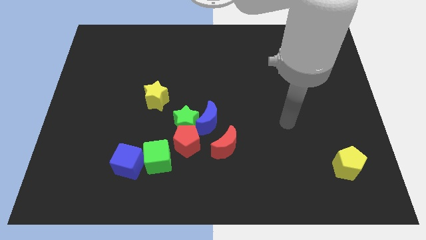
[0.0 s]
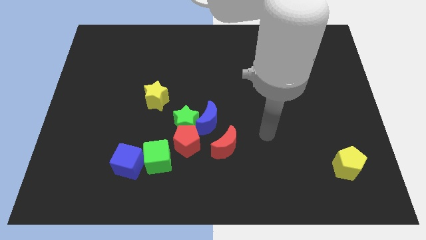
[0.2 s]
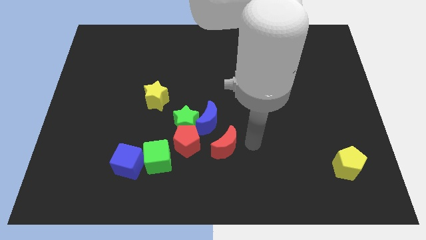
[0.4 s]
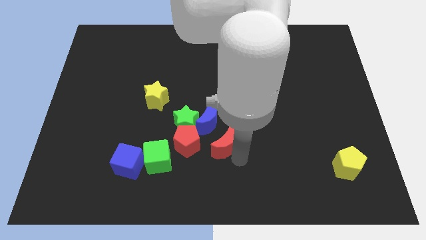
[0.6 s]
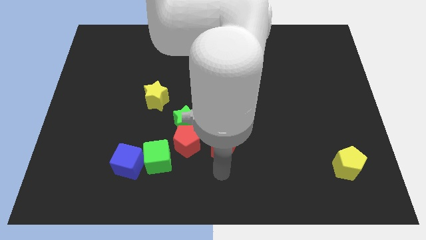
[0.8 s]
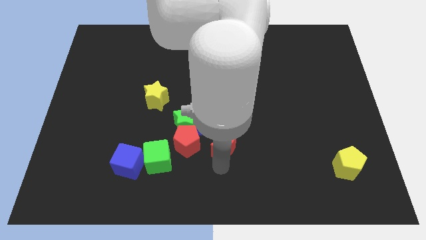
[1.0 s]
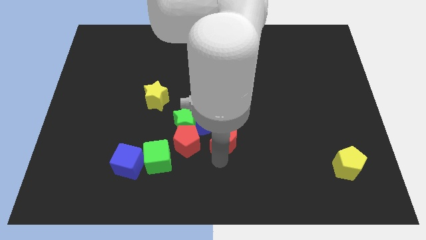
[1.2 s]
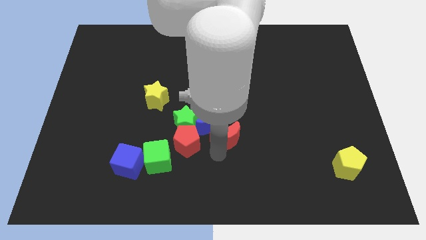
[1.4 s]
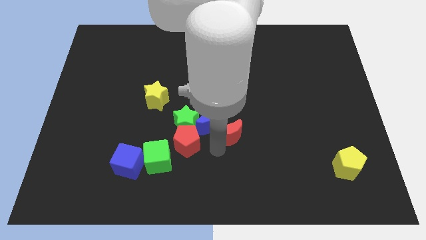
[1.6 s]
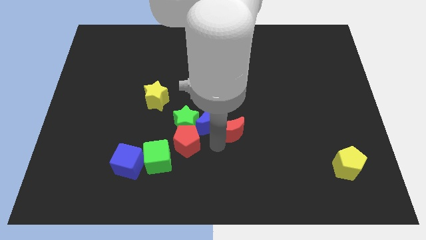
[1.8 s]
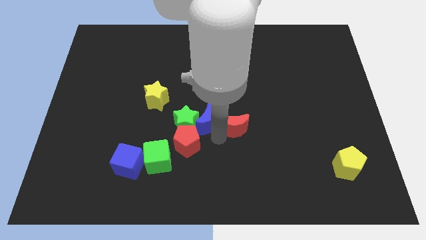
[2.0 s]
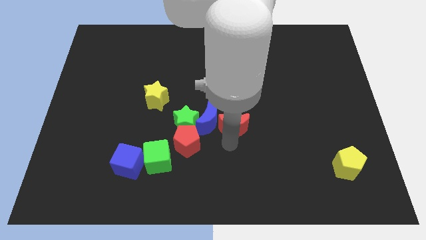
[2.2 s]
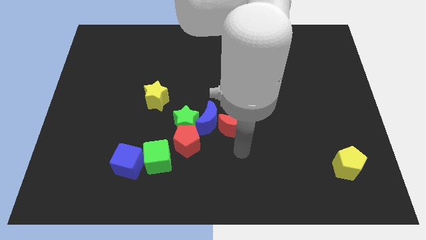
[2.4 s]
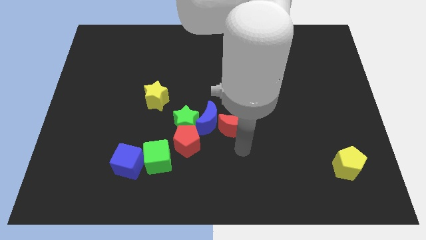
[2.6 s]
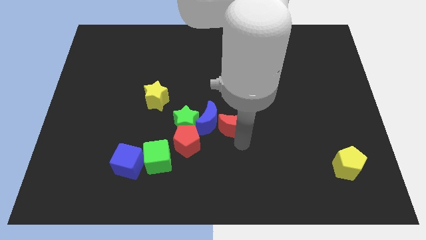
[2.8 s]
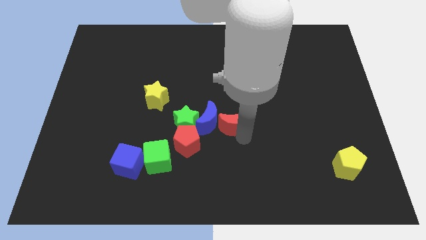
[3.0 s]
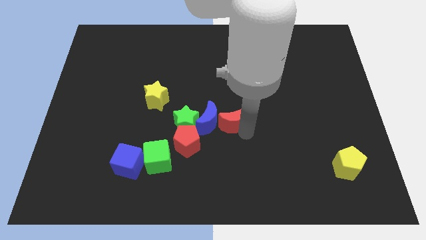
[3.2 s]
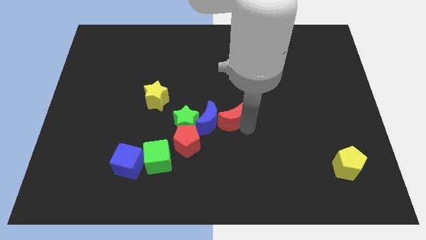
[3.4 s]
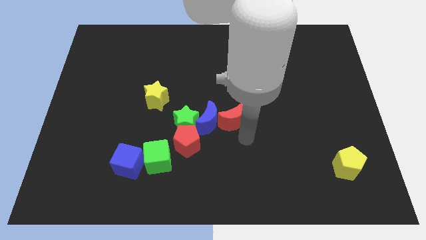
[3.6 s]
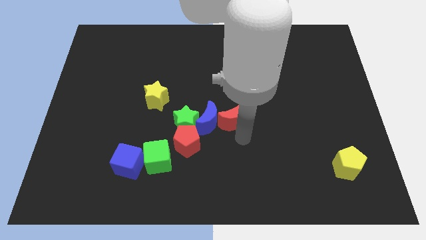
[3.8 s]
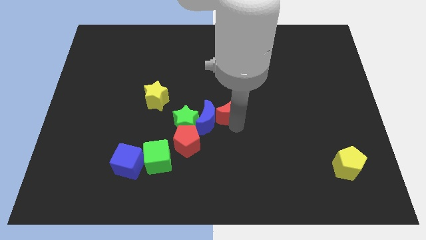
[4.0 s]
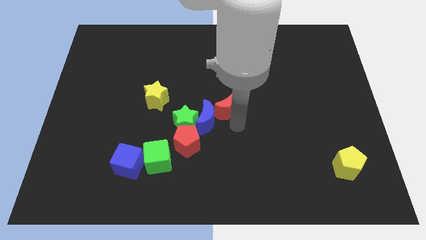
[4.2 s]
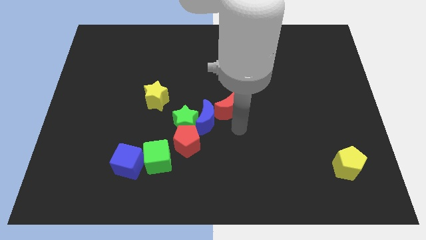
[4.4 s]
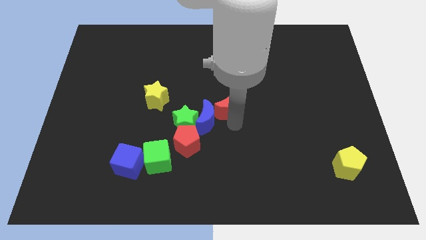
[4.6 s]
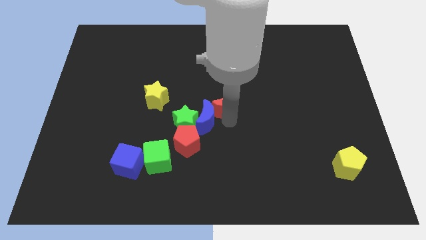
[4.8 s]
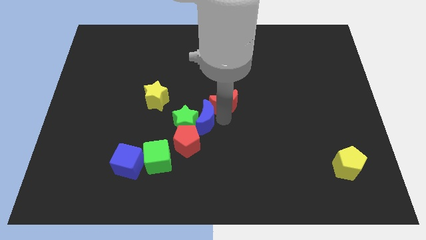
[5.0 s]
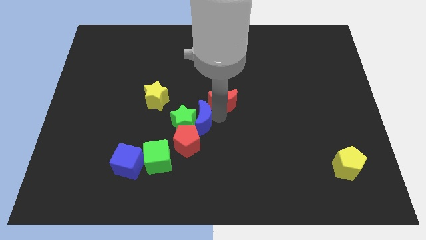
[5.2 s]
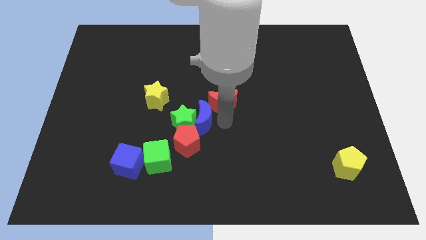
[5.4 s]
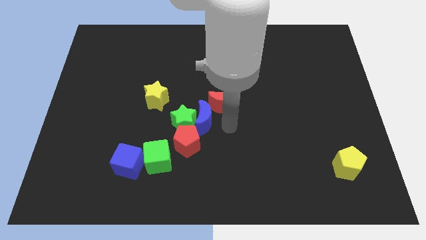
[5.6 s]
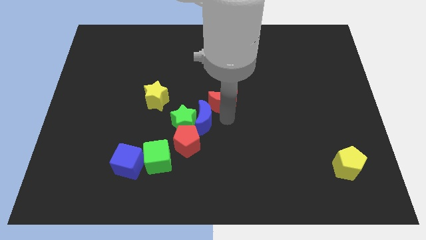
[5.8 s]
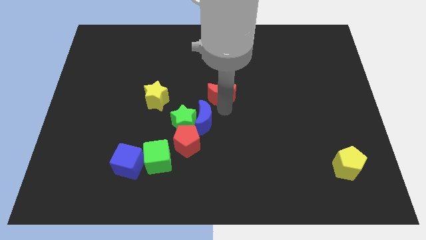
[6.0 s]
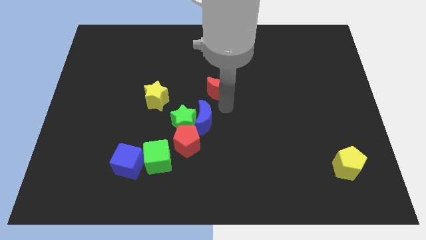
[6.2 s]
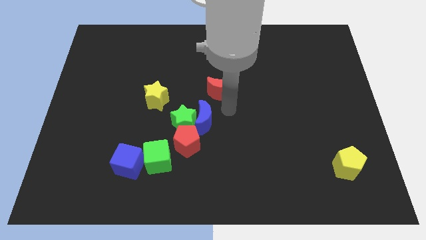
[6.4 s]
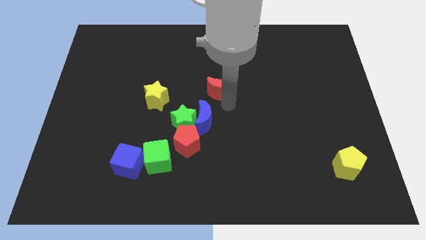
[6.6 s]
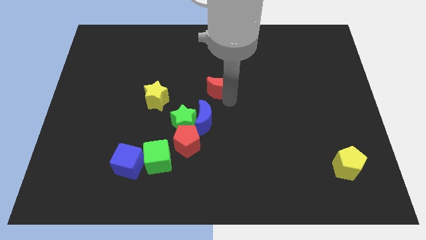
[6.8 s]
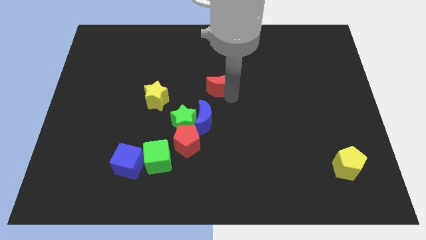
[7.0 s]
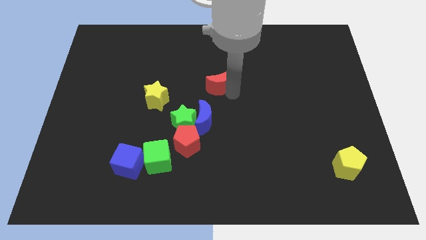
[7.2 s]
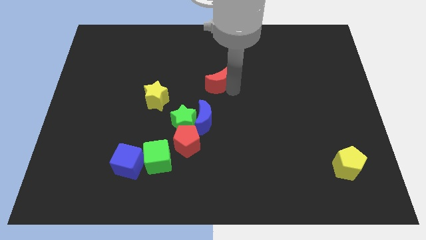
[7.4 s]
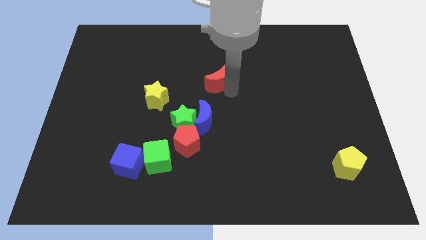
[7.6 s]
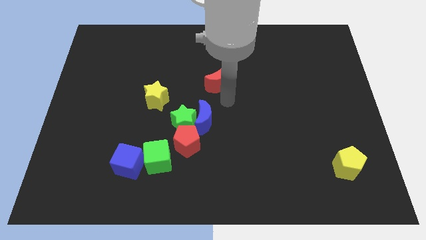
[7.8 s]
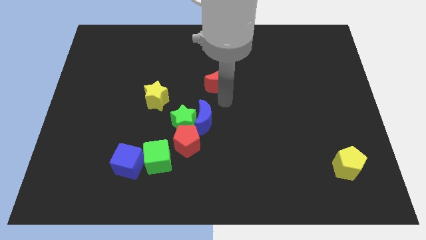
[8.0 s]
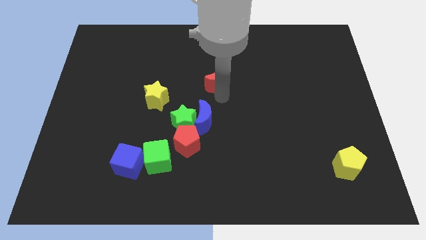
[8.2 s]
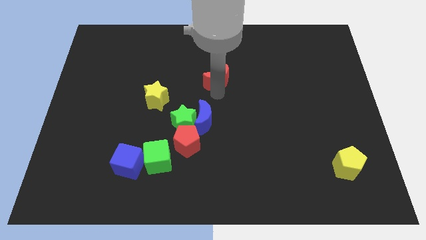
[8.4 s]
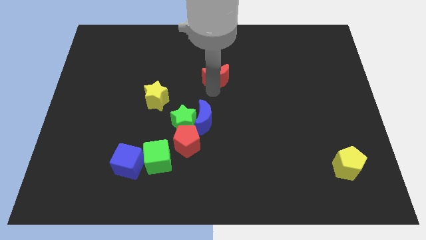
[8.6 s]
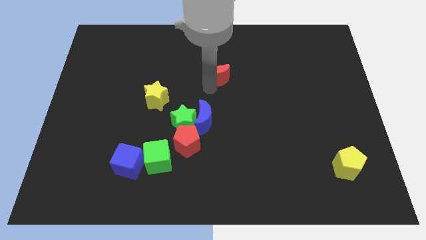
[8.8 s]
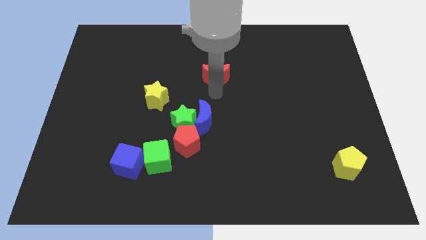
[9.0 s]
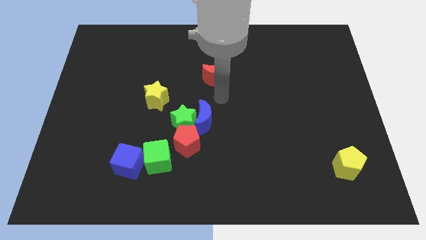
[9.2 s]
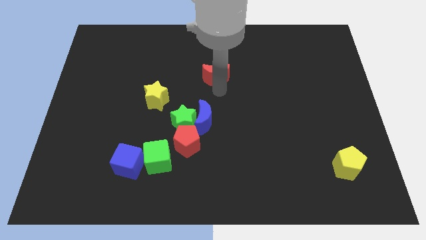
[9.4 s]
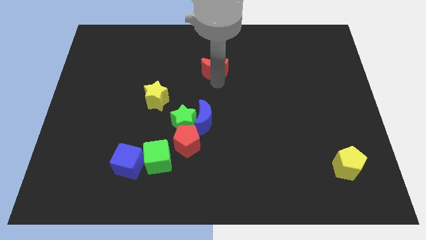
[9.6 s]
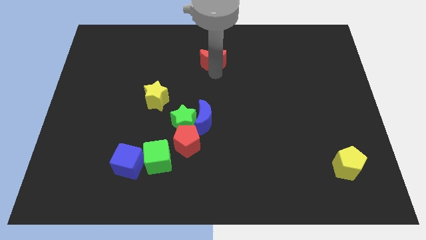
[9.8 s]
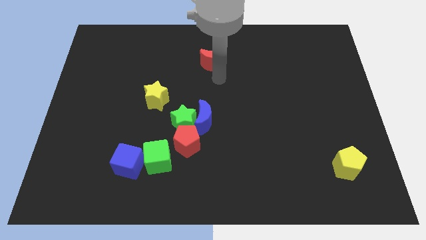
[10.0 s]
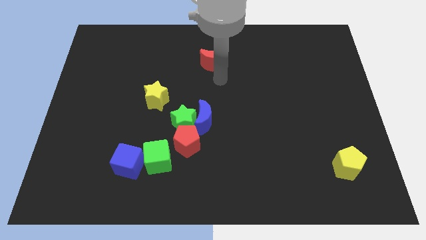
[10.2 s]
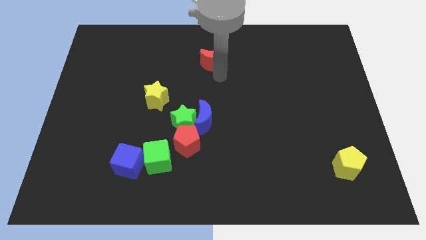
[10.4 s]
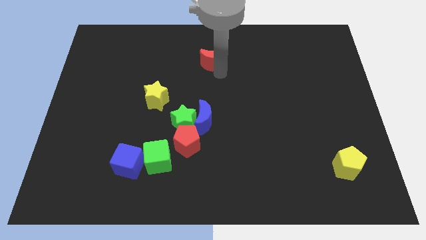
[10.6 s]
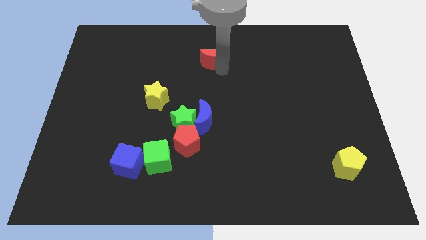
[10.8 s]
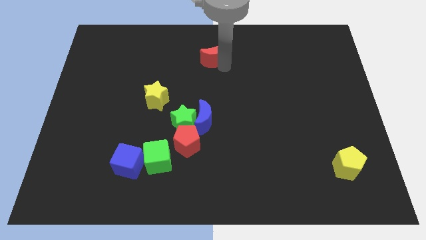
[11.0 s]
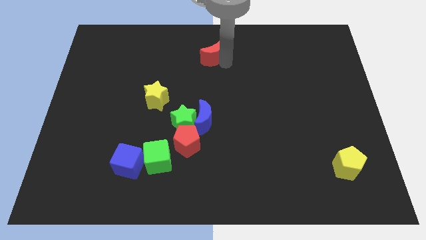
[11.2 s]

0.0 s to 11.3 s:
slide the red moon to the towards your base
